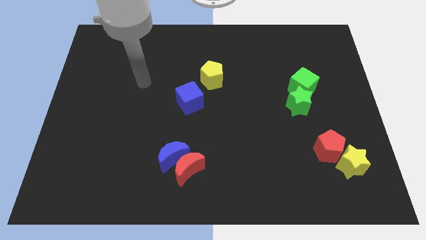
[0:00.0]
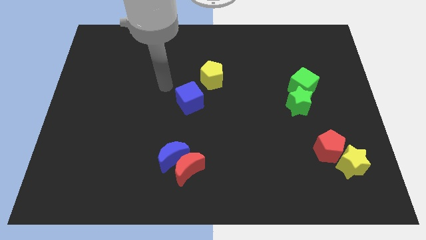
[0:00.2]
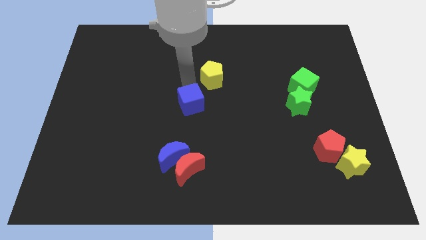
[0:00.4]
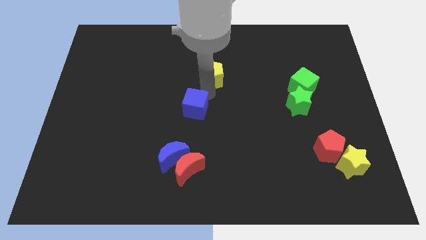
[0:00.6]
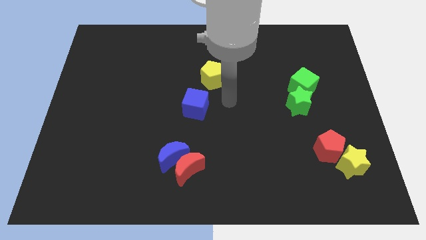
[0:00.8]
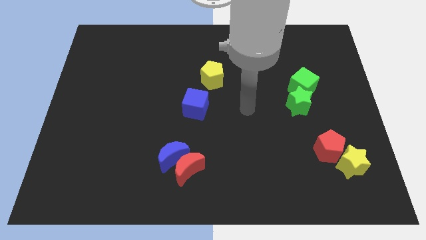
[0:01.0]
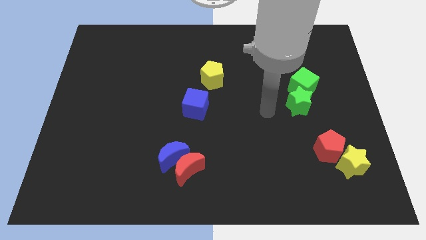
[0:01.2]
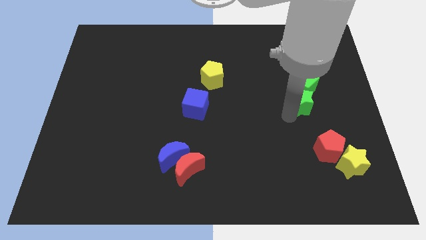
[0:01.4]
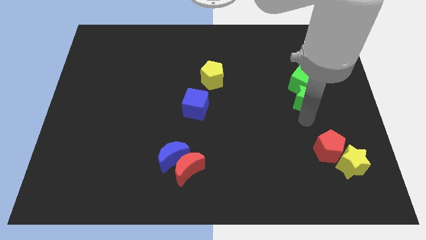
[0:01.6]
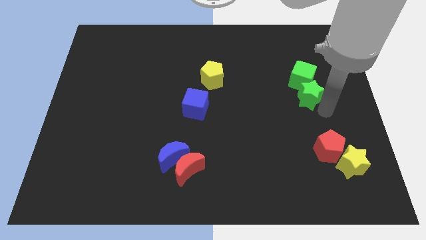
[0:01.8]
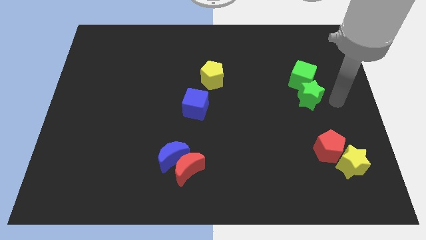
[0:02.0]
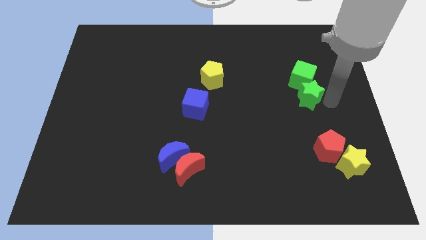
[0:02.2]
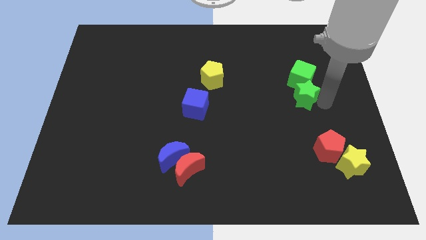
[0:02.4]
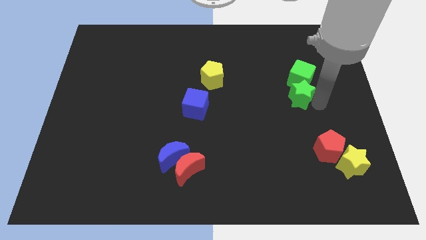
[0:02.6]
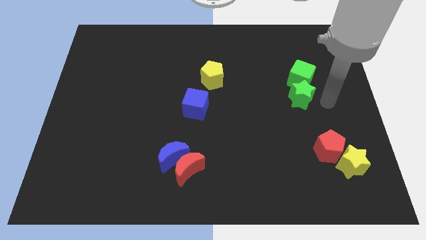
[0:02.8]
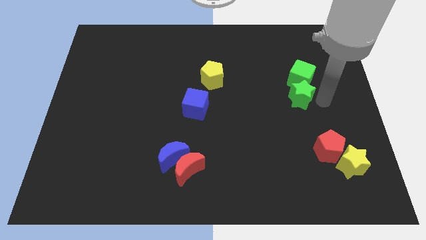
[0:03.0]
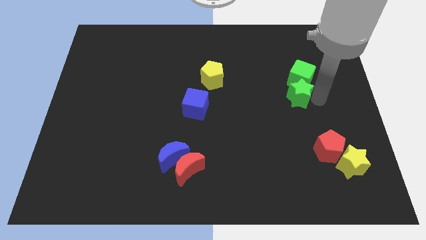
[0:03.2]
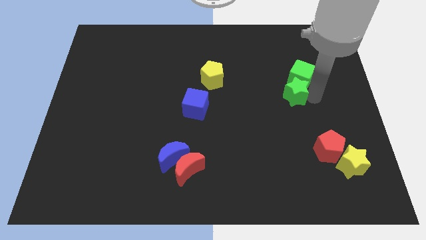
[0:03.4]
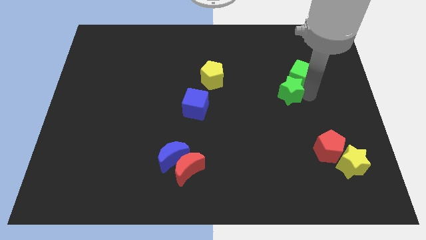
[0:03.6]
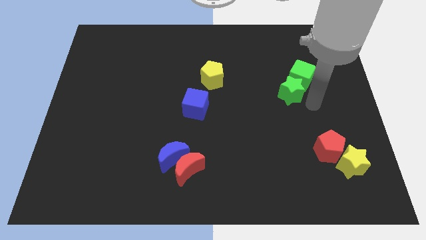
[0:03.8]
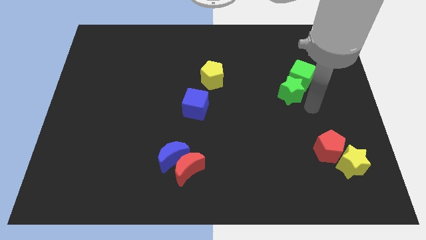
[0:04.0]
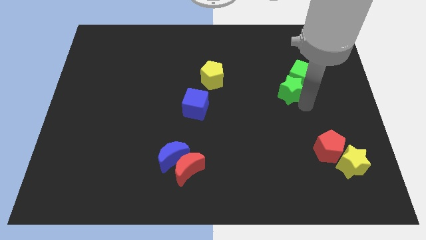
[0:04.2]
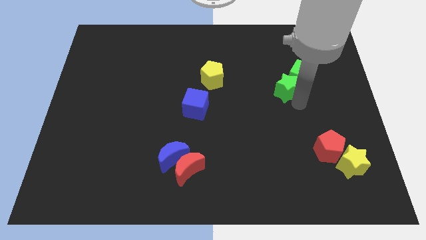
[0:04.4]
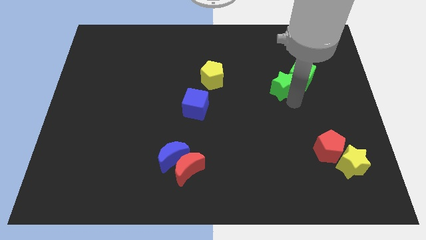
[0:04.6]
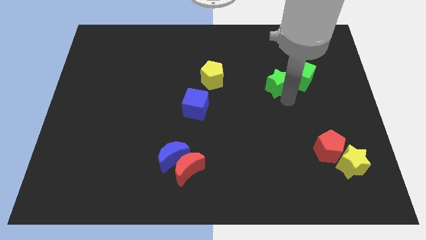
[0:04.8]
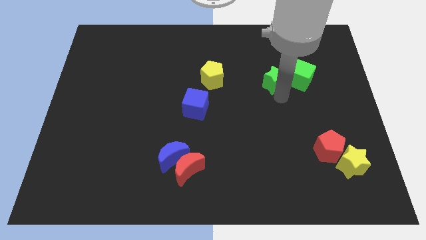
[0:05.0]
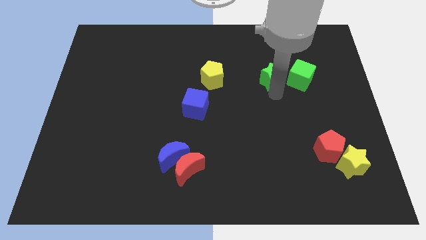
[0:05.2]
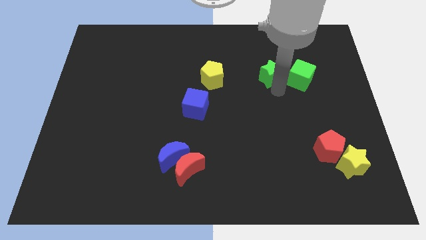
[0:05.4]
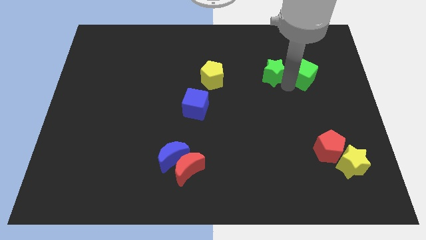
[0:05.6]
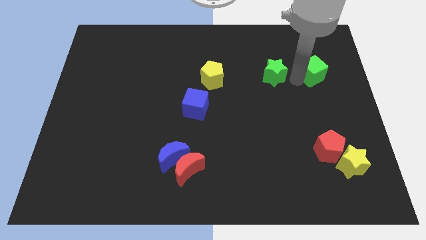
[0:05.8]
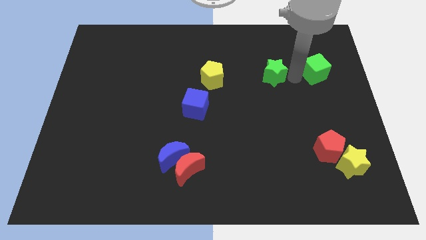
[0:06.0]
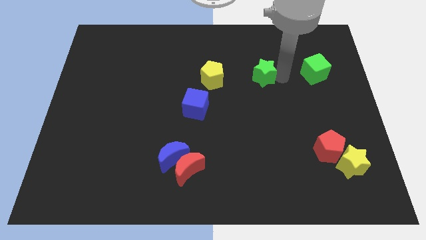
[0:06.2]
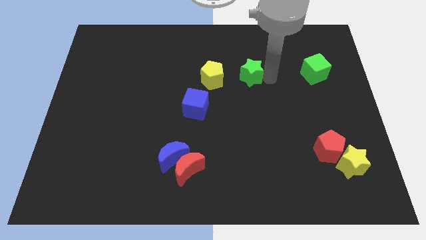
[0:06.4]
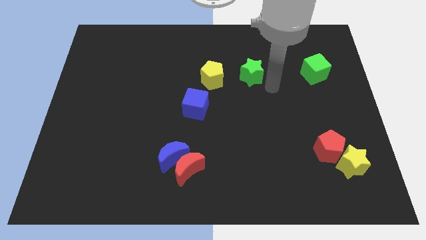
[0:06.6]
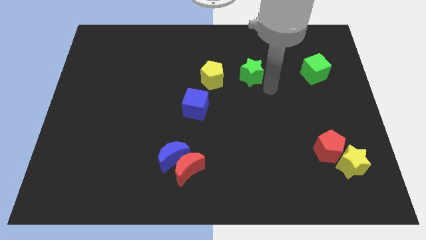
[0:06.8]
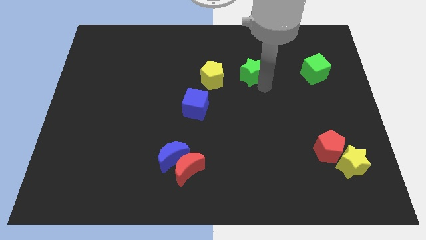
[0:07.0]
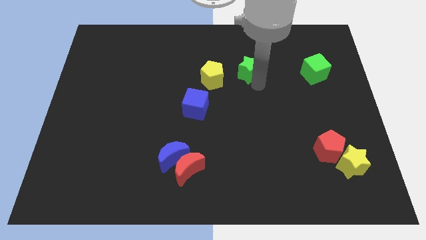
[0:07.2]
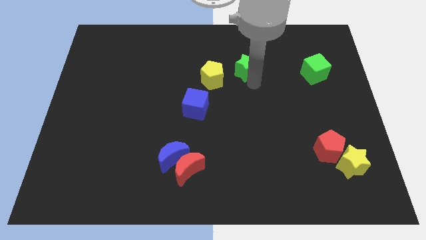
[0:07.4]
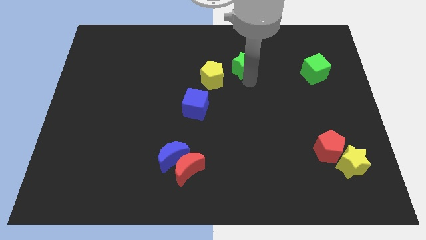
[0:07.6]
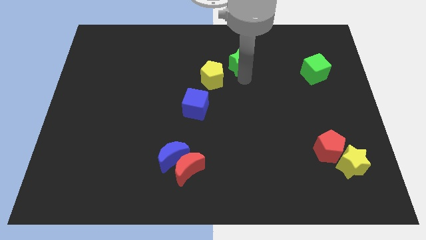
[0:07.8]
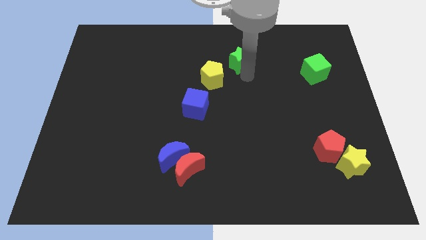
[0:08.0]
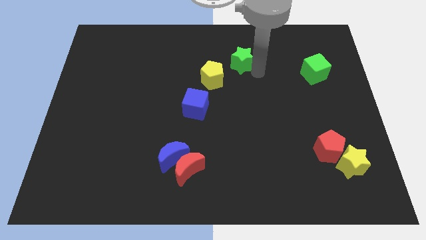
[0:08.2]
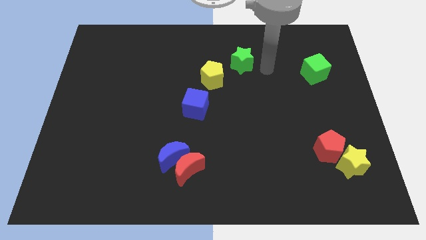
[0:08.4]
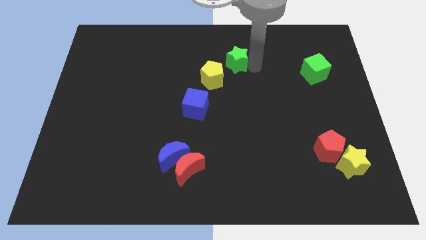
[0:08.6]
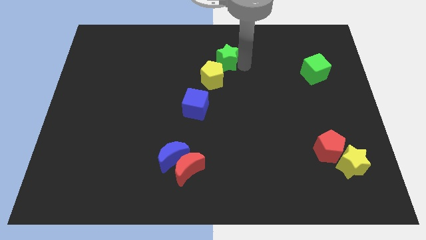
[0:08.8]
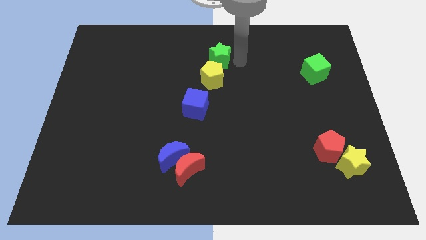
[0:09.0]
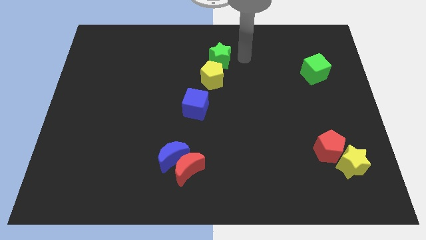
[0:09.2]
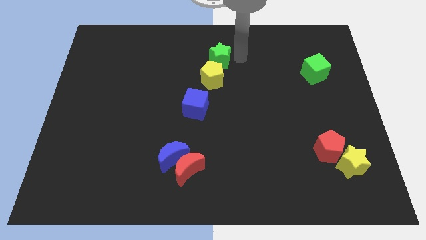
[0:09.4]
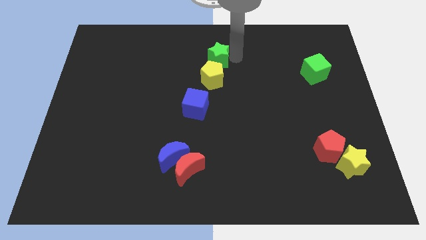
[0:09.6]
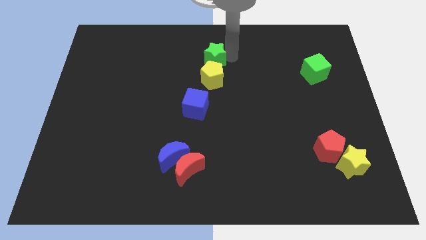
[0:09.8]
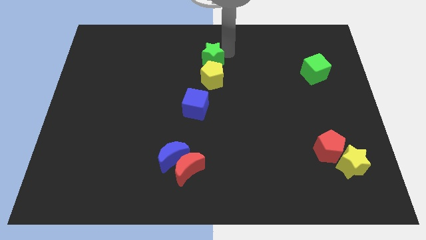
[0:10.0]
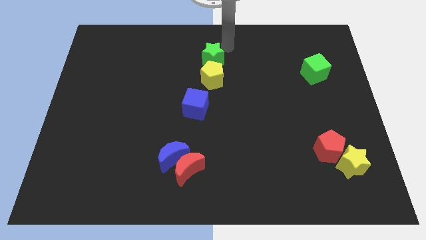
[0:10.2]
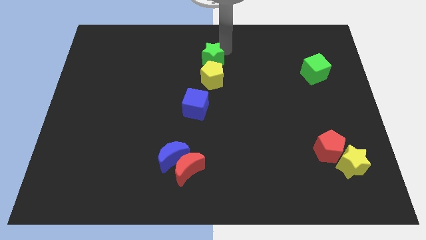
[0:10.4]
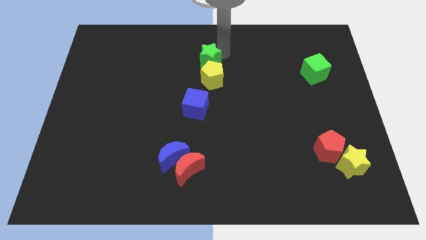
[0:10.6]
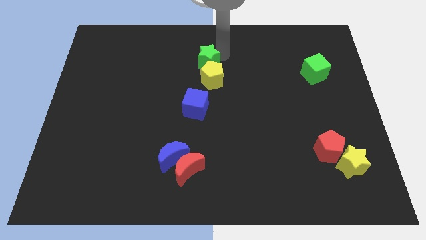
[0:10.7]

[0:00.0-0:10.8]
slide the green star to the top side of the blue cube

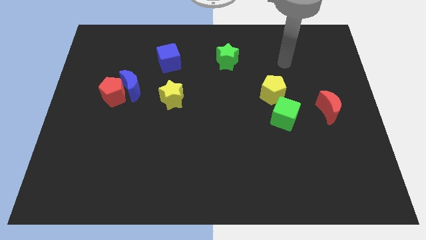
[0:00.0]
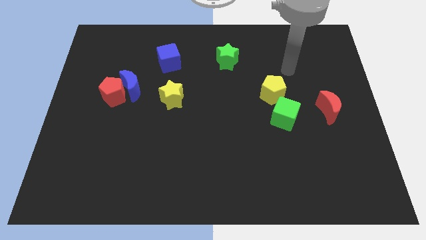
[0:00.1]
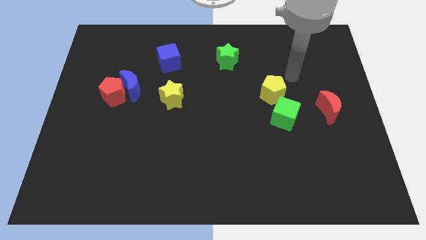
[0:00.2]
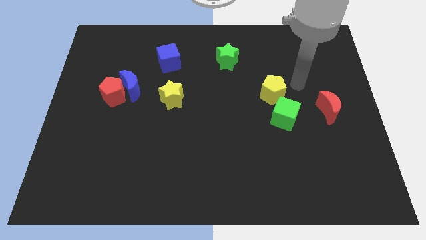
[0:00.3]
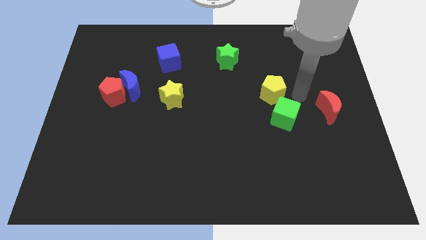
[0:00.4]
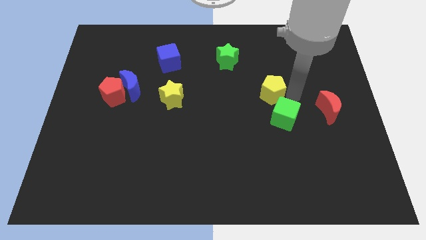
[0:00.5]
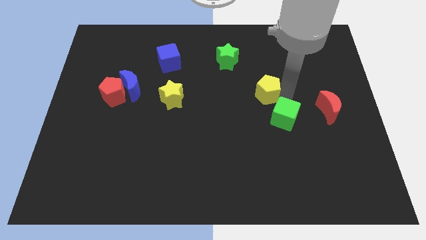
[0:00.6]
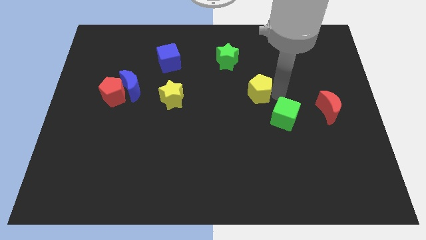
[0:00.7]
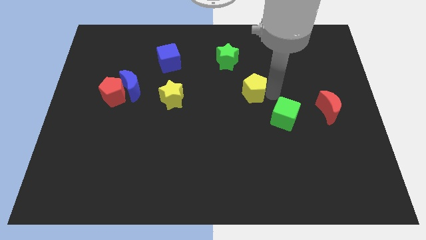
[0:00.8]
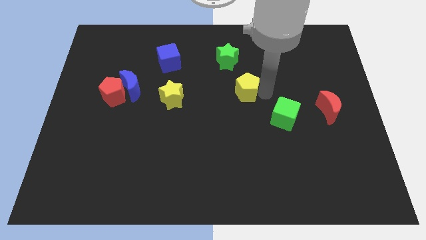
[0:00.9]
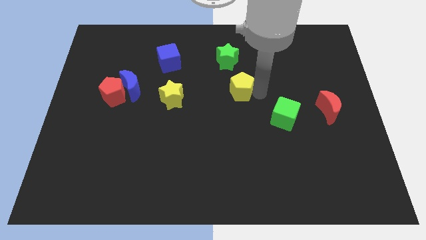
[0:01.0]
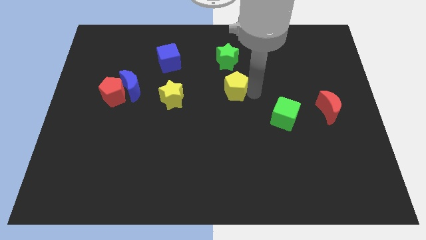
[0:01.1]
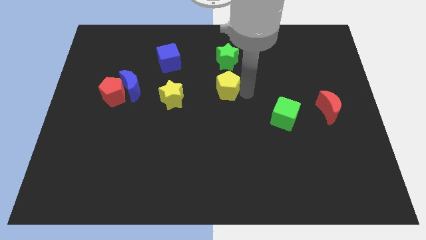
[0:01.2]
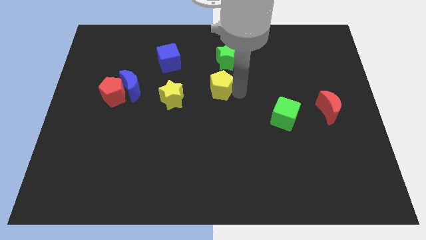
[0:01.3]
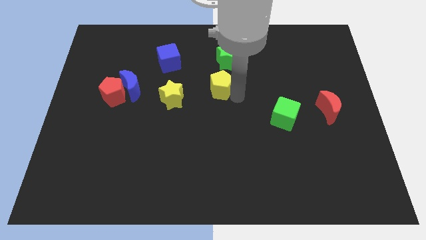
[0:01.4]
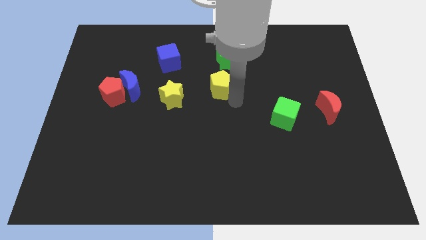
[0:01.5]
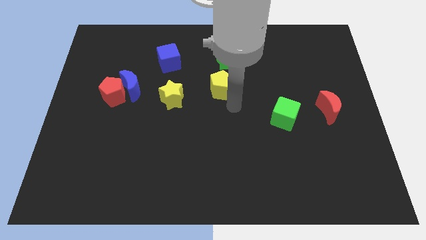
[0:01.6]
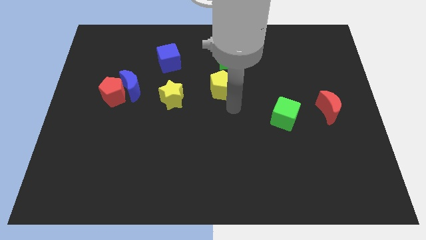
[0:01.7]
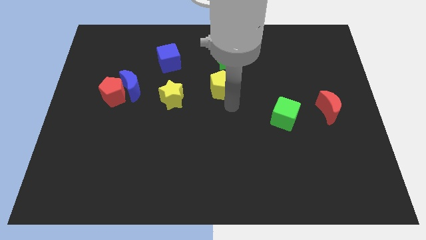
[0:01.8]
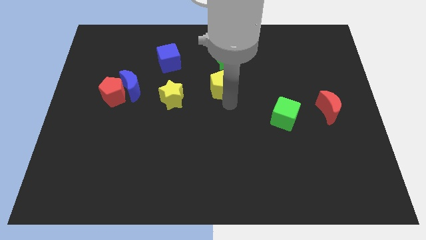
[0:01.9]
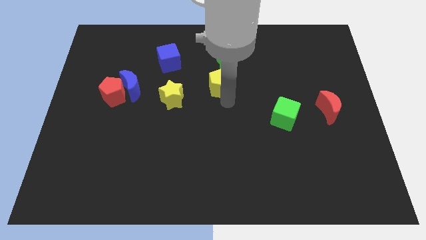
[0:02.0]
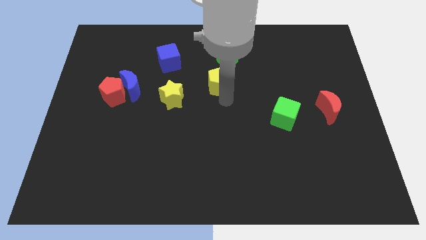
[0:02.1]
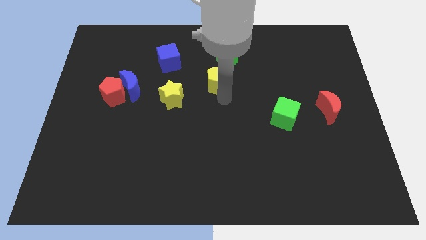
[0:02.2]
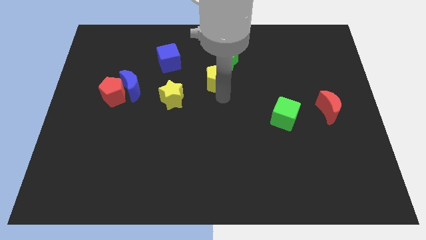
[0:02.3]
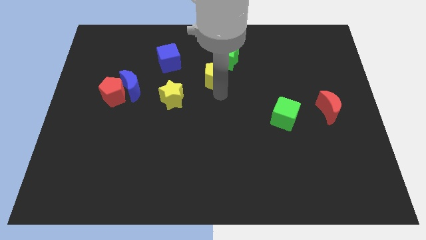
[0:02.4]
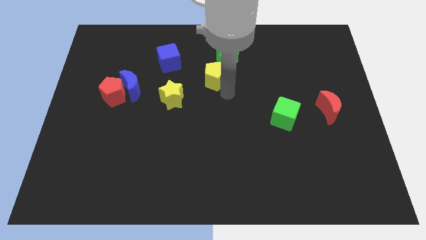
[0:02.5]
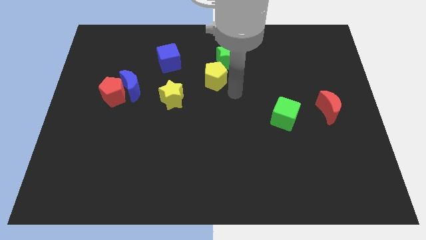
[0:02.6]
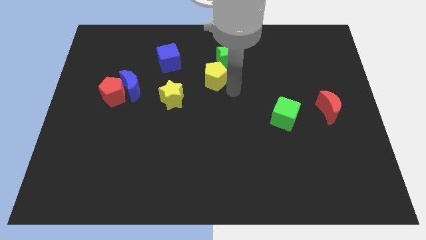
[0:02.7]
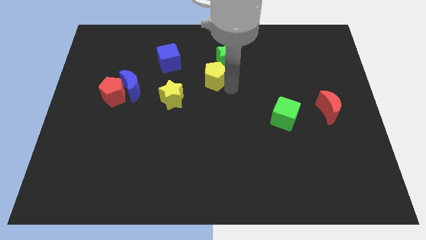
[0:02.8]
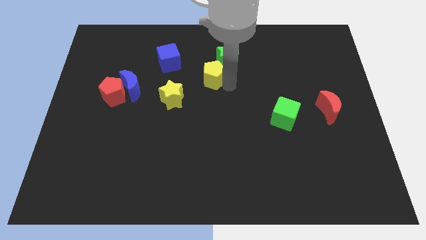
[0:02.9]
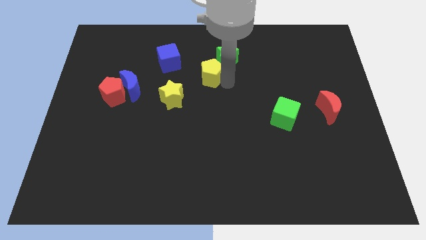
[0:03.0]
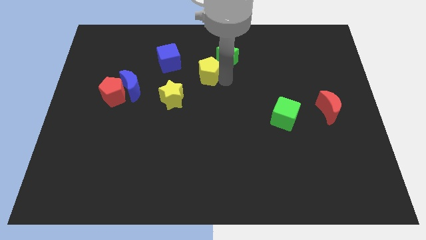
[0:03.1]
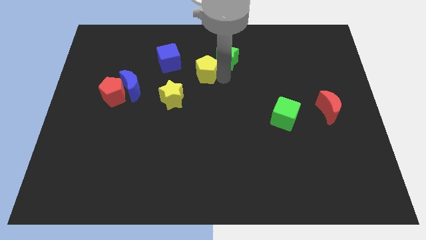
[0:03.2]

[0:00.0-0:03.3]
push the yellow pentagon just left of the green star
